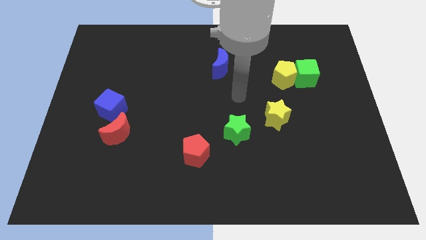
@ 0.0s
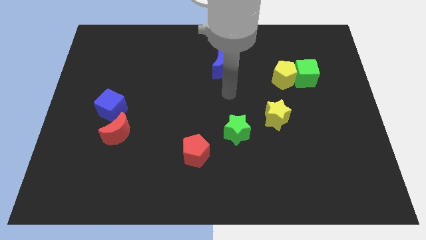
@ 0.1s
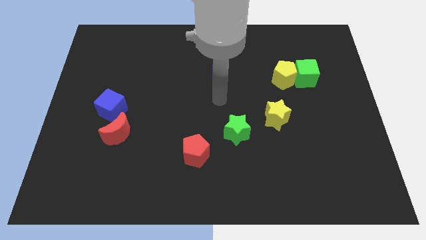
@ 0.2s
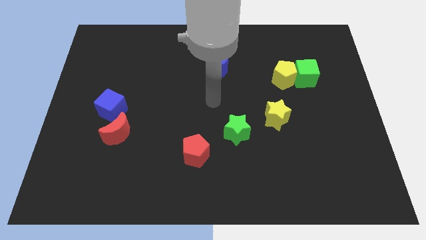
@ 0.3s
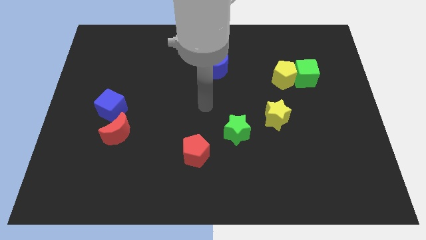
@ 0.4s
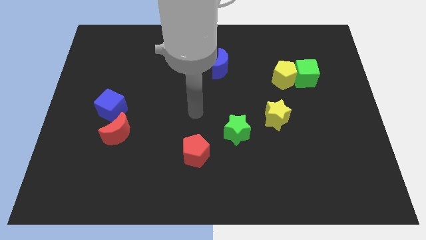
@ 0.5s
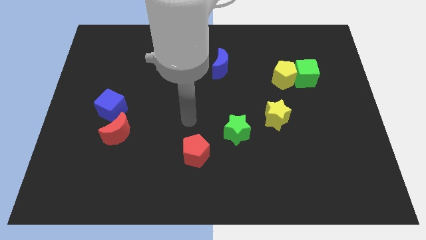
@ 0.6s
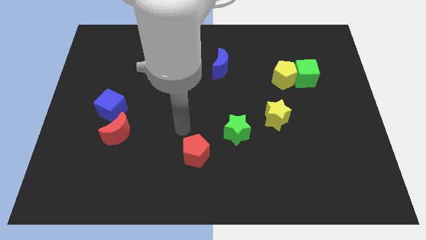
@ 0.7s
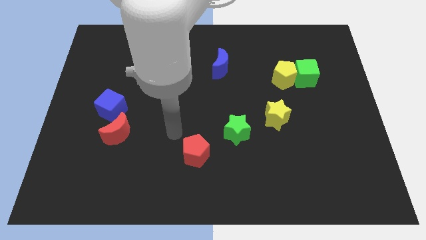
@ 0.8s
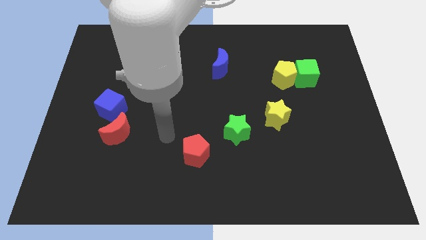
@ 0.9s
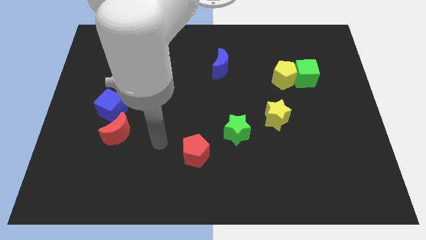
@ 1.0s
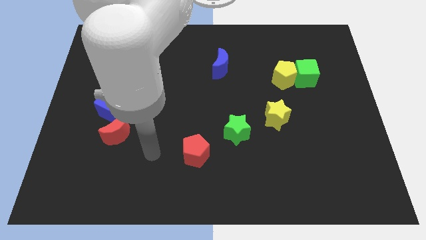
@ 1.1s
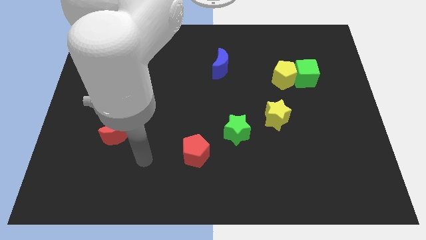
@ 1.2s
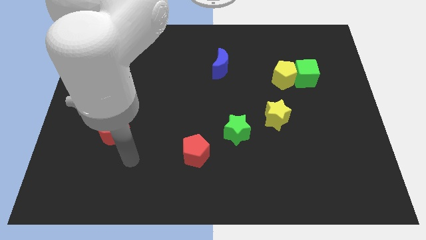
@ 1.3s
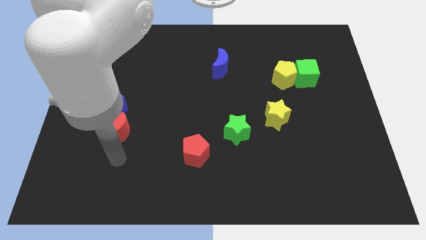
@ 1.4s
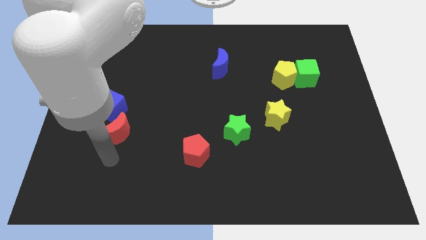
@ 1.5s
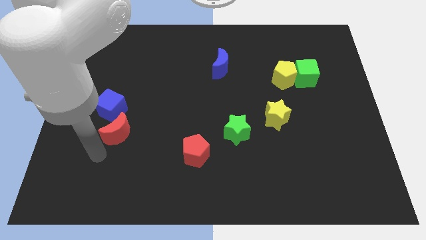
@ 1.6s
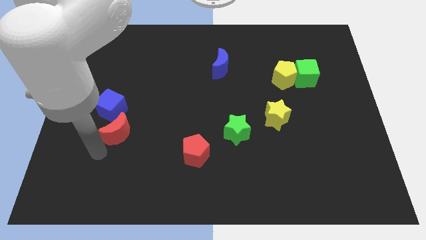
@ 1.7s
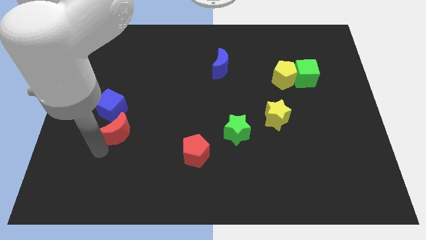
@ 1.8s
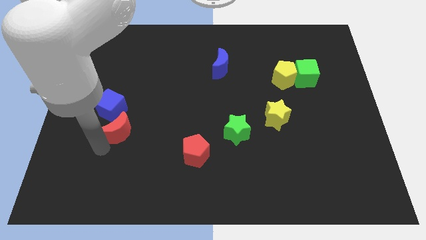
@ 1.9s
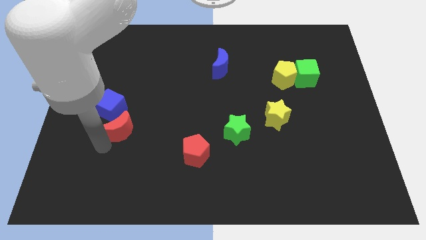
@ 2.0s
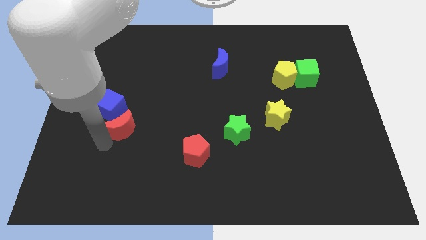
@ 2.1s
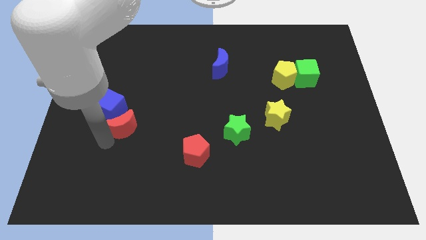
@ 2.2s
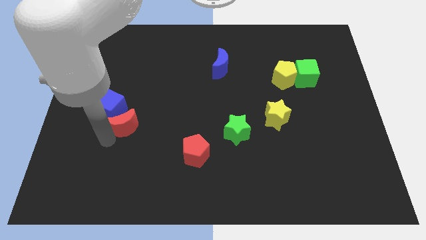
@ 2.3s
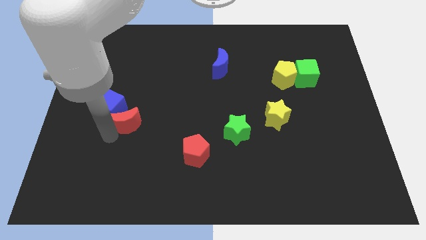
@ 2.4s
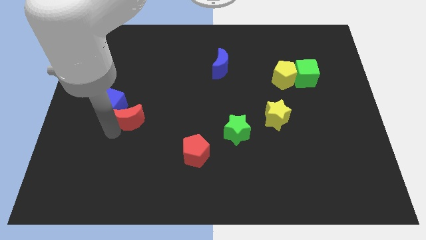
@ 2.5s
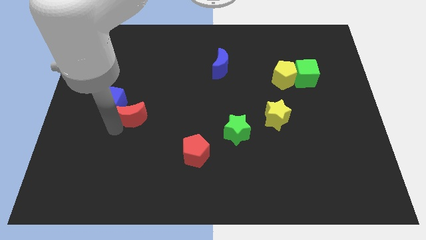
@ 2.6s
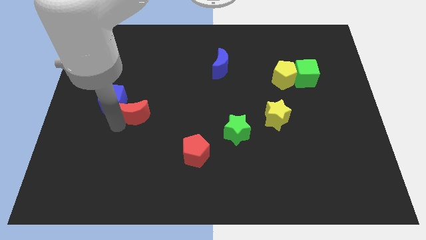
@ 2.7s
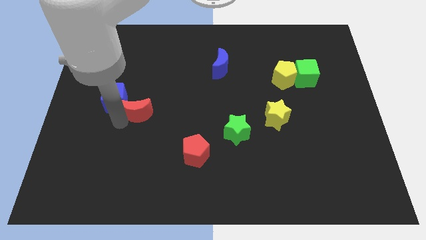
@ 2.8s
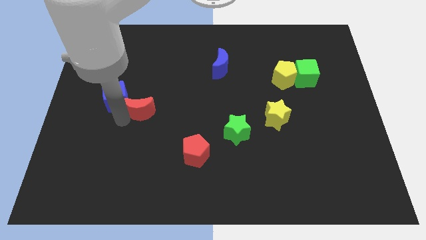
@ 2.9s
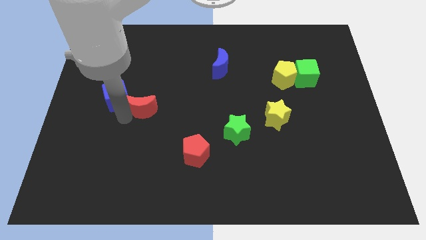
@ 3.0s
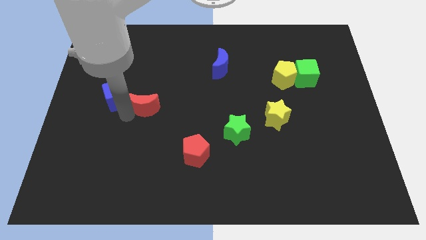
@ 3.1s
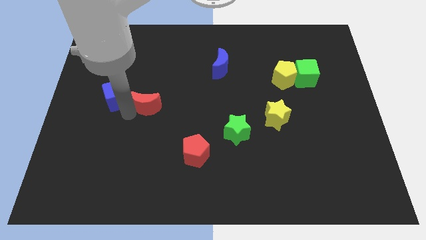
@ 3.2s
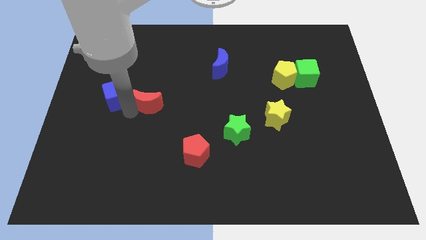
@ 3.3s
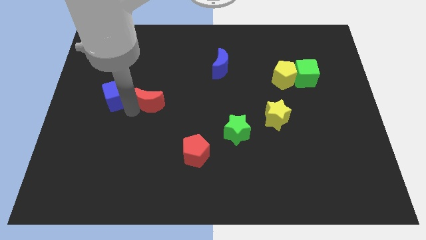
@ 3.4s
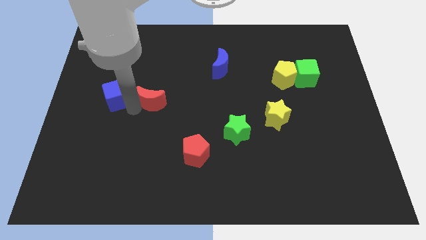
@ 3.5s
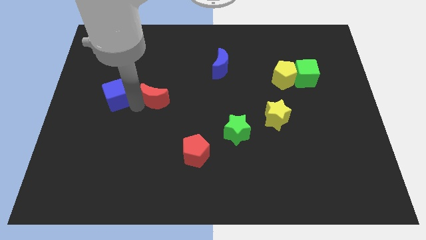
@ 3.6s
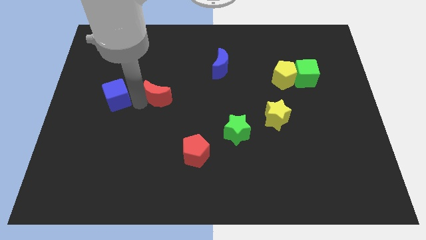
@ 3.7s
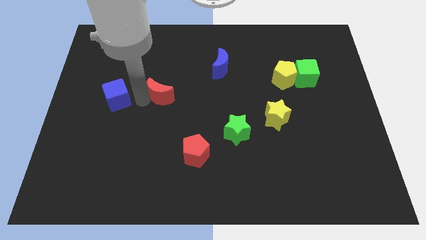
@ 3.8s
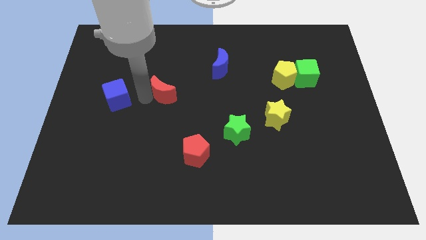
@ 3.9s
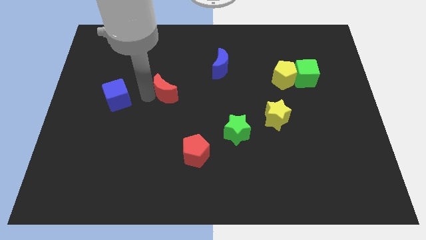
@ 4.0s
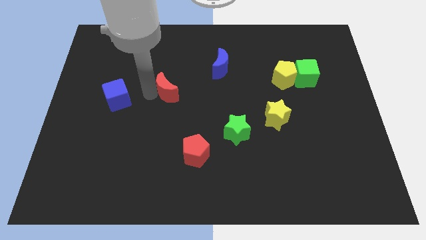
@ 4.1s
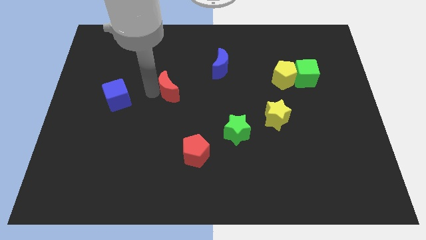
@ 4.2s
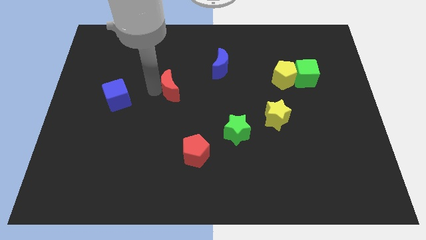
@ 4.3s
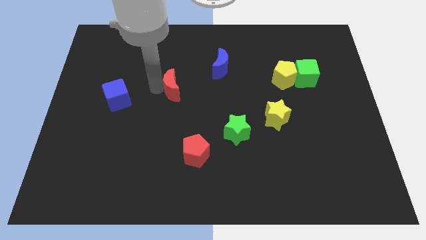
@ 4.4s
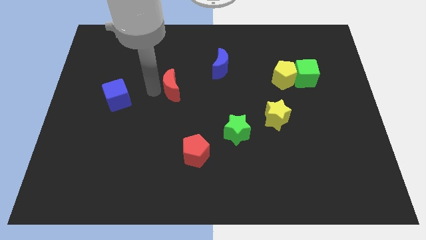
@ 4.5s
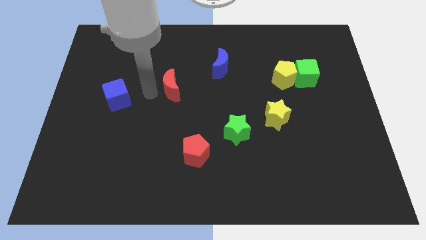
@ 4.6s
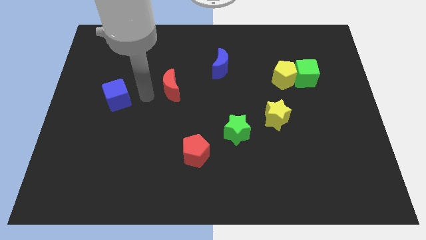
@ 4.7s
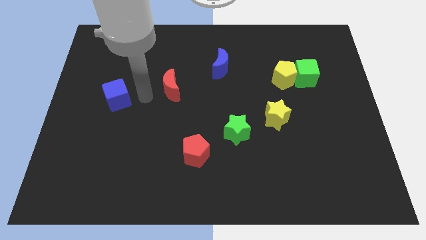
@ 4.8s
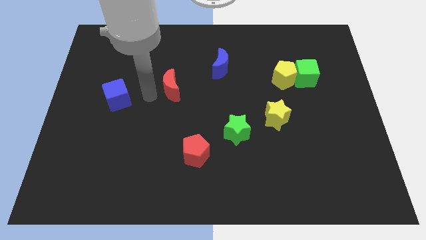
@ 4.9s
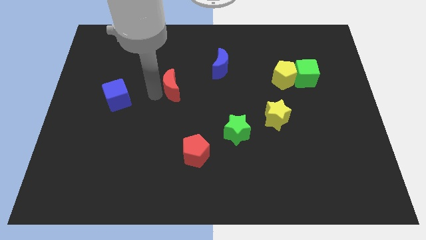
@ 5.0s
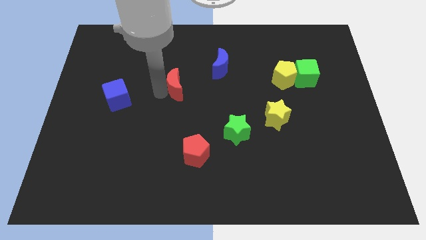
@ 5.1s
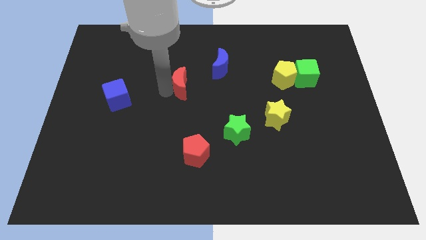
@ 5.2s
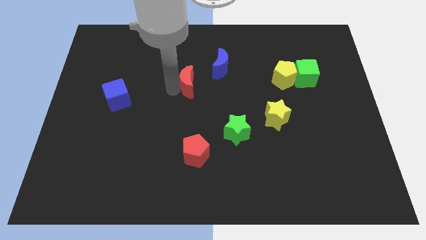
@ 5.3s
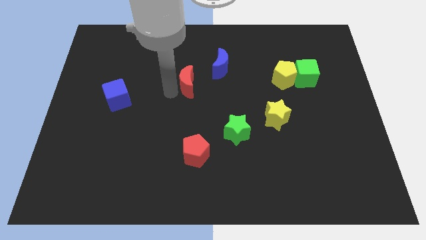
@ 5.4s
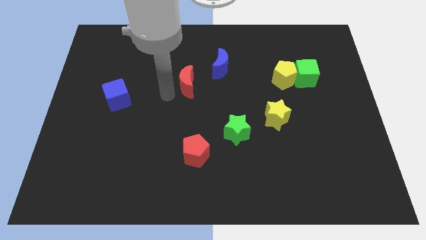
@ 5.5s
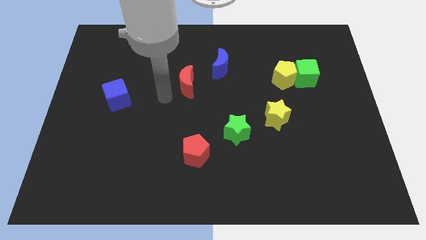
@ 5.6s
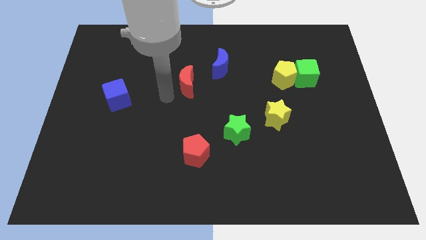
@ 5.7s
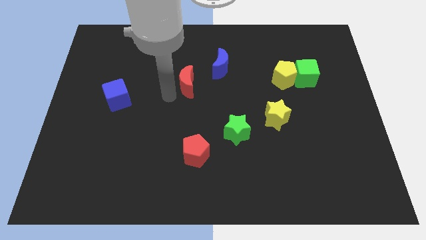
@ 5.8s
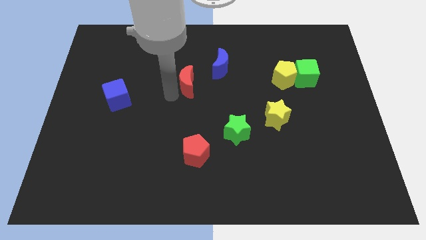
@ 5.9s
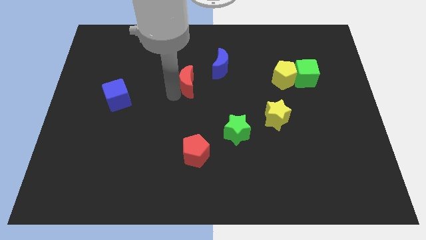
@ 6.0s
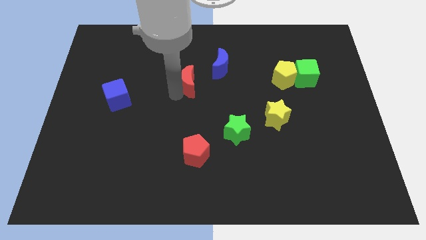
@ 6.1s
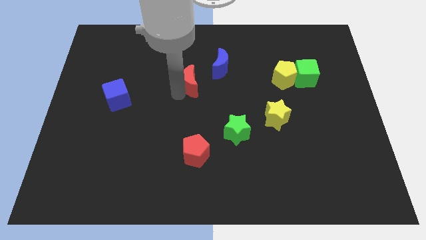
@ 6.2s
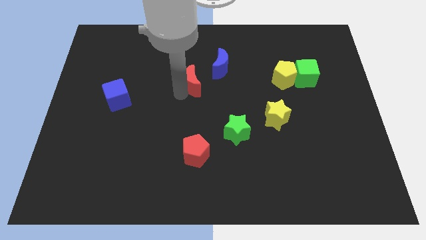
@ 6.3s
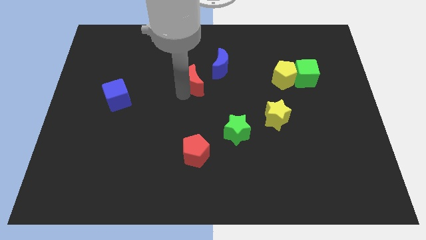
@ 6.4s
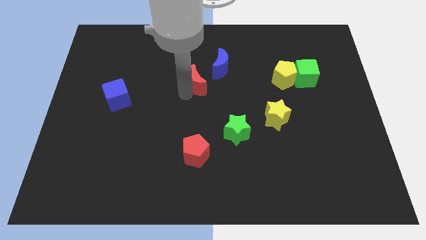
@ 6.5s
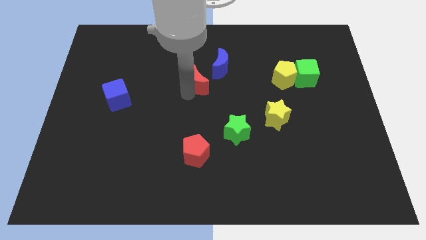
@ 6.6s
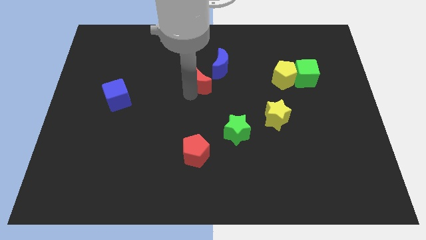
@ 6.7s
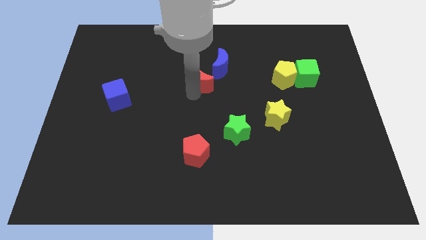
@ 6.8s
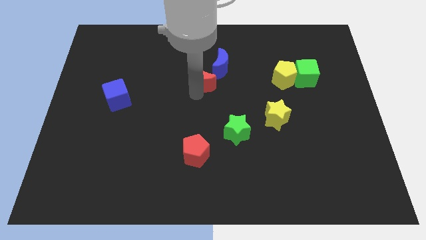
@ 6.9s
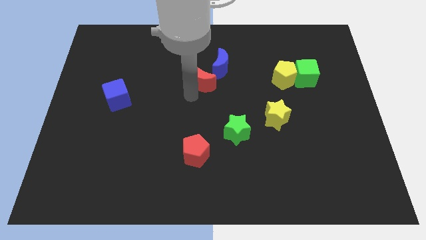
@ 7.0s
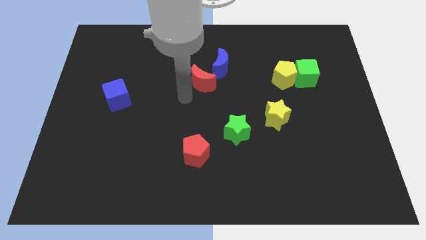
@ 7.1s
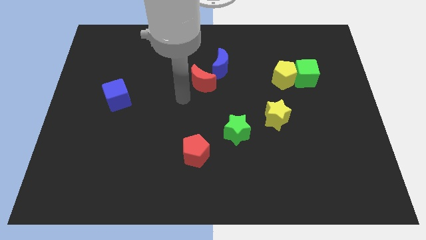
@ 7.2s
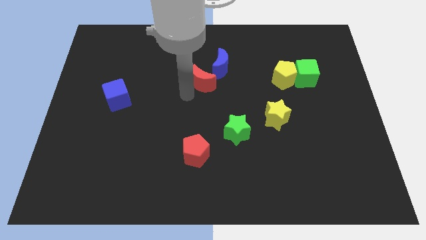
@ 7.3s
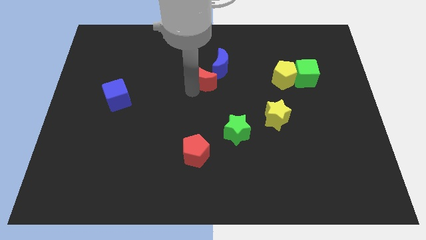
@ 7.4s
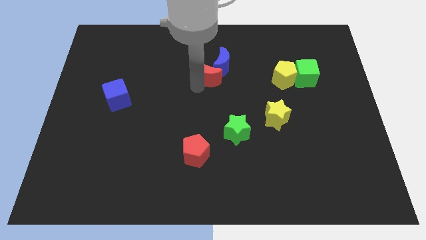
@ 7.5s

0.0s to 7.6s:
slide the red moon towards the blue moon

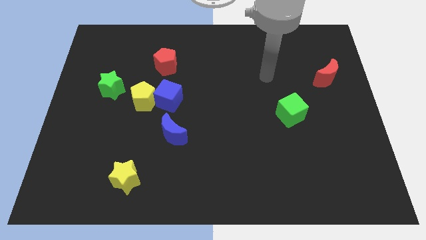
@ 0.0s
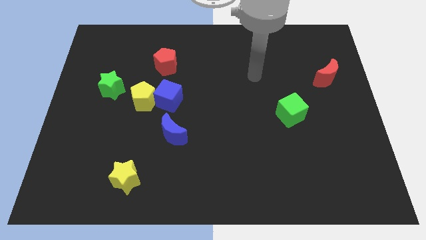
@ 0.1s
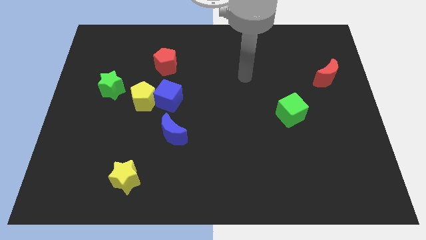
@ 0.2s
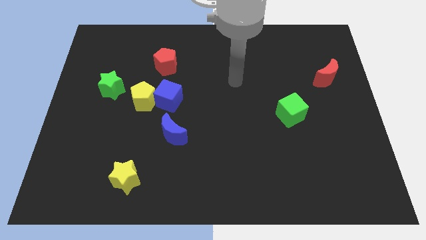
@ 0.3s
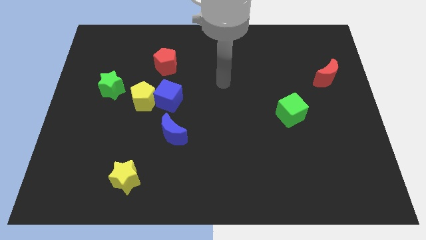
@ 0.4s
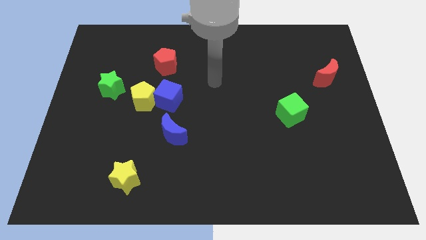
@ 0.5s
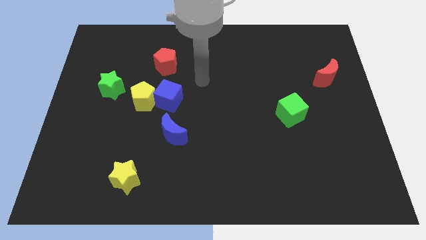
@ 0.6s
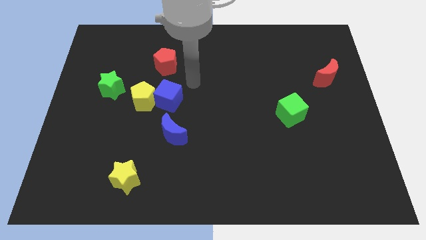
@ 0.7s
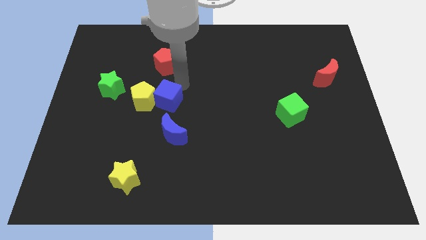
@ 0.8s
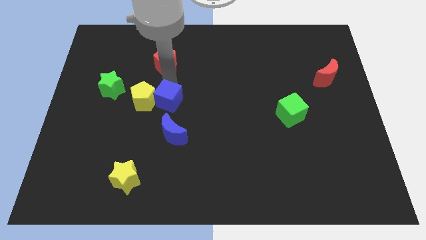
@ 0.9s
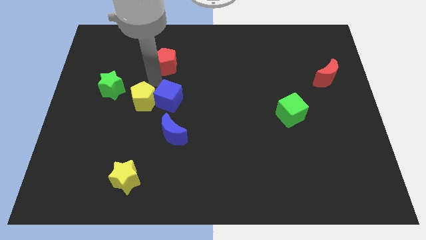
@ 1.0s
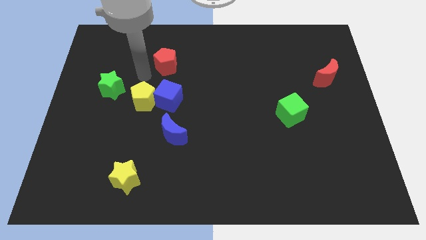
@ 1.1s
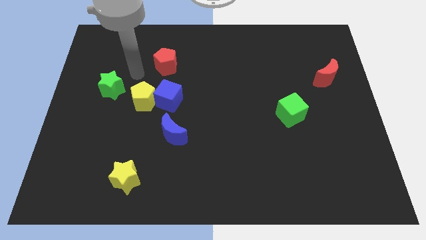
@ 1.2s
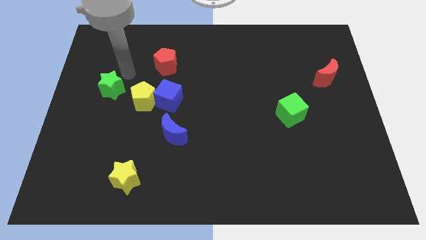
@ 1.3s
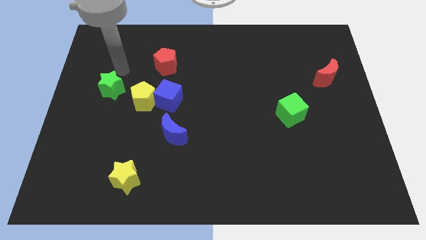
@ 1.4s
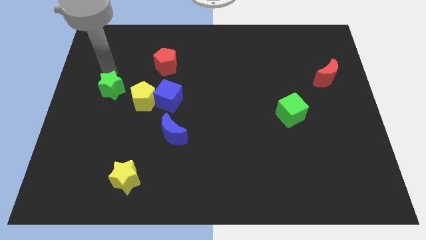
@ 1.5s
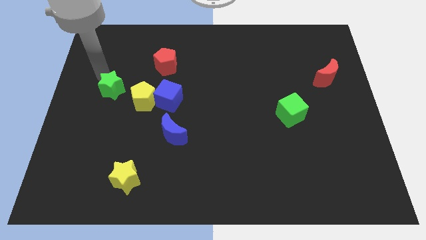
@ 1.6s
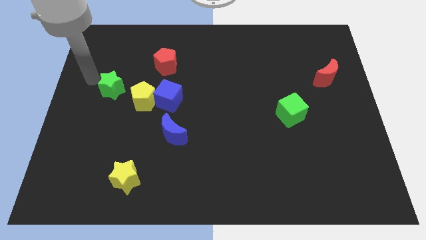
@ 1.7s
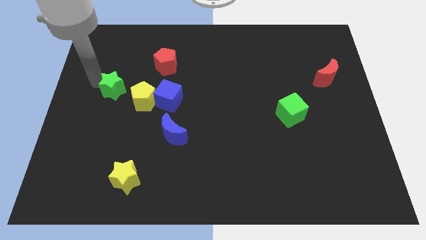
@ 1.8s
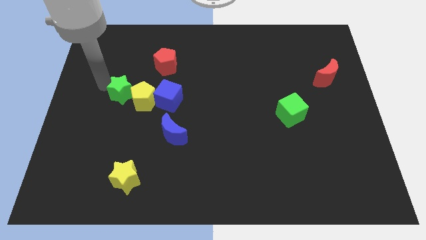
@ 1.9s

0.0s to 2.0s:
slide the green star close to the yellow pentagon
